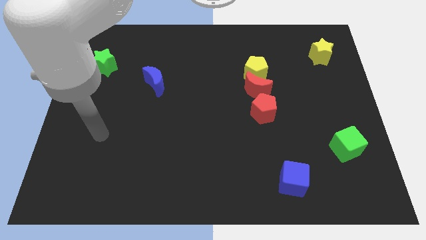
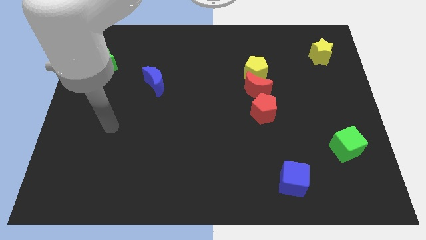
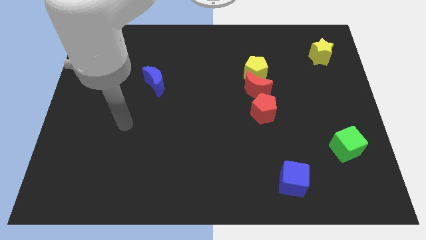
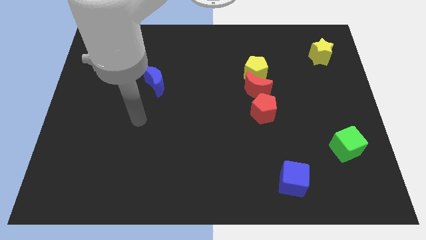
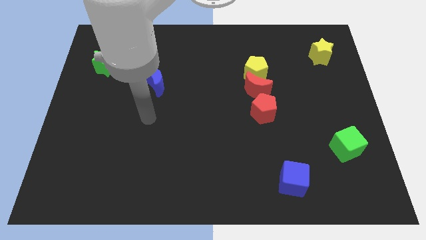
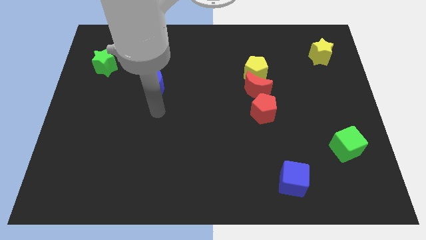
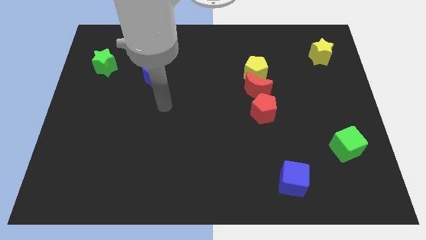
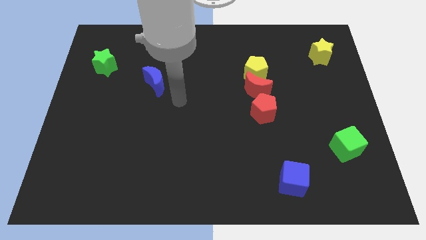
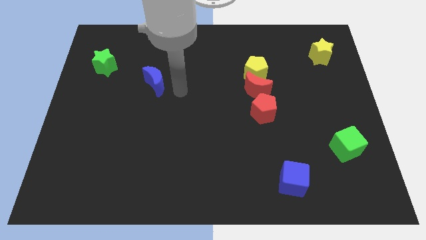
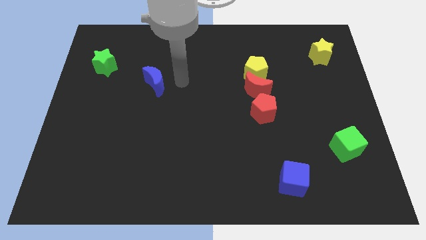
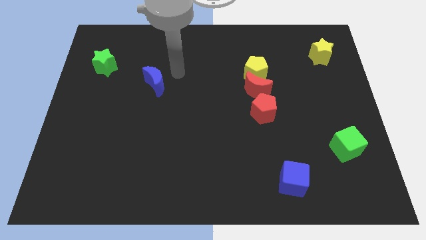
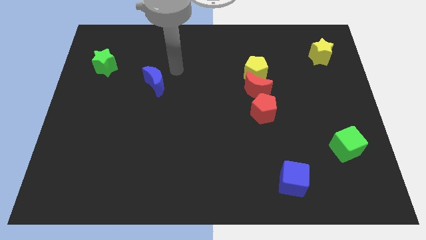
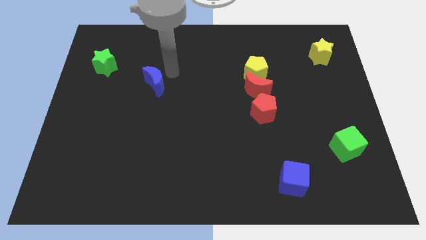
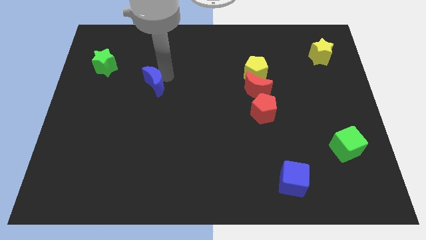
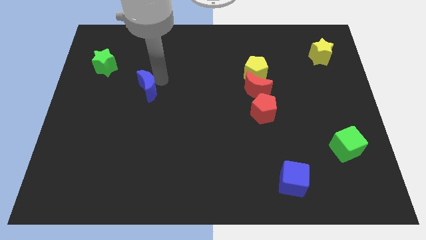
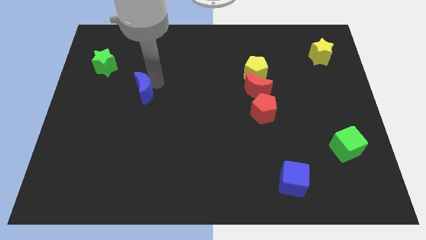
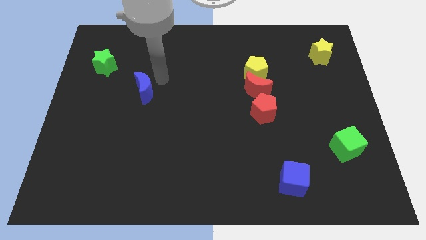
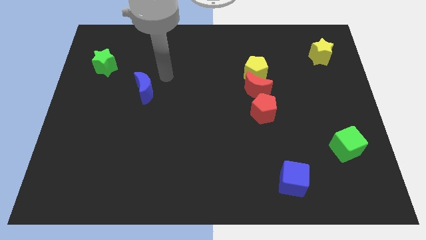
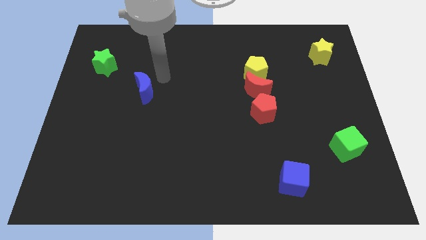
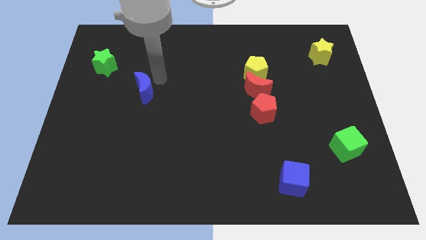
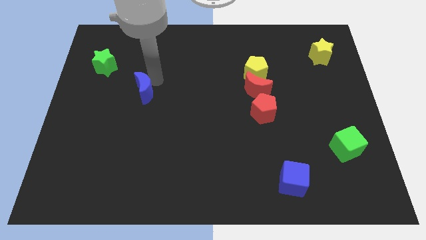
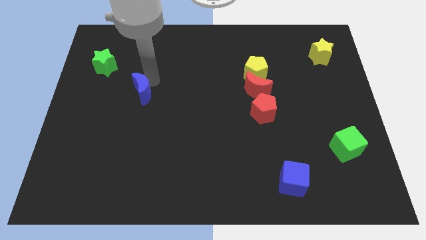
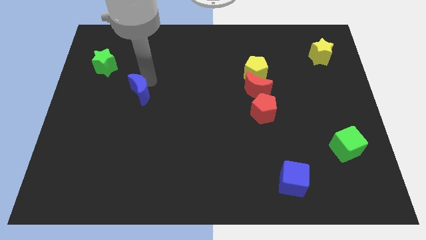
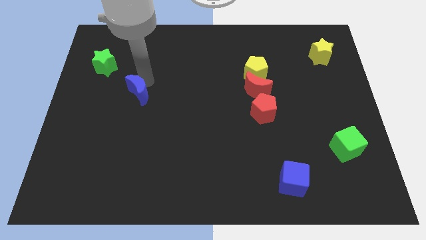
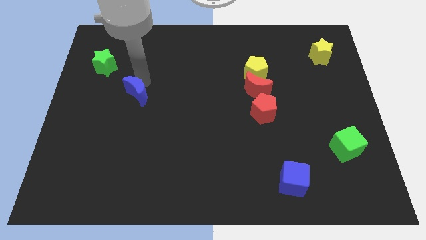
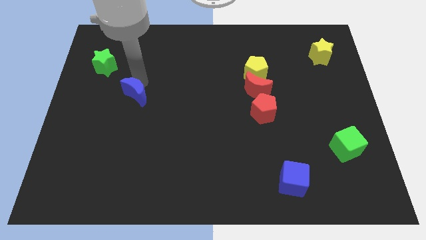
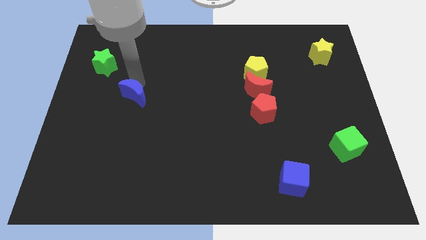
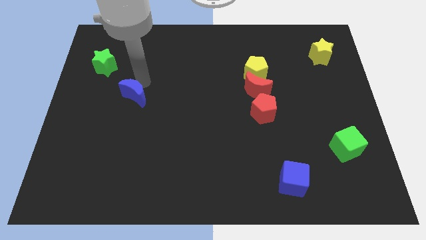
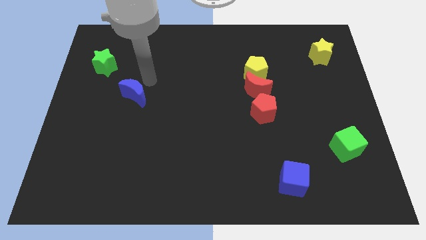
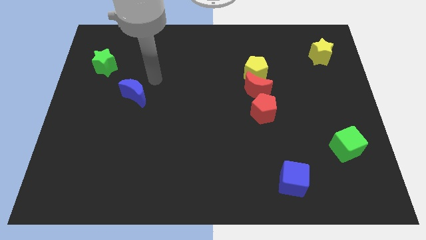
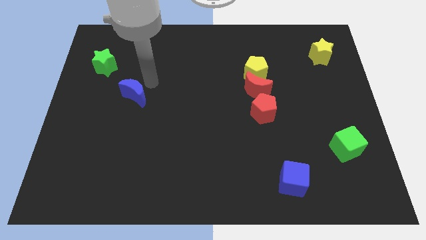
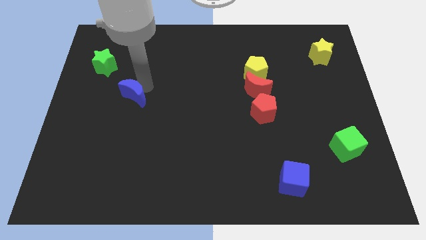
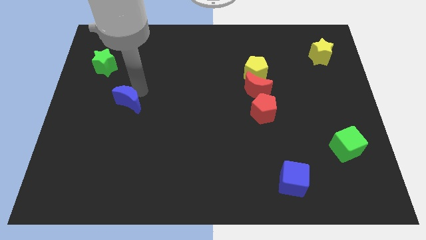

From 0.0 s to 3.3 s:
slightly push the blue moon downwards and left

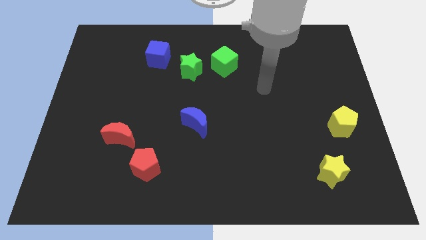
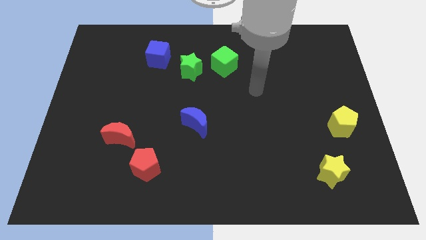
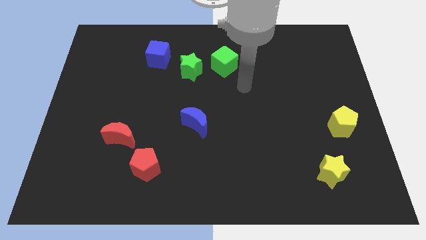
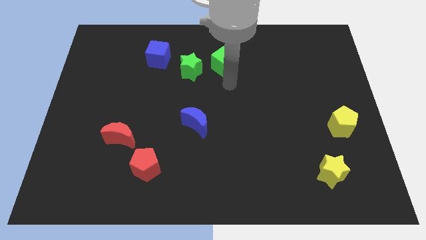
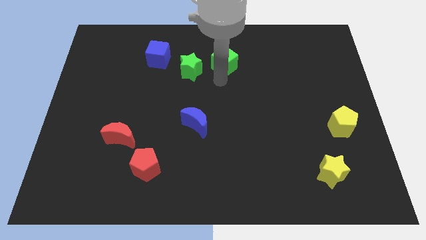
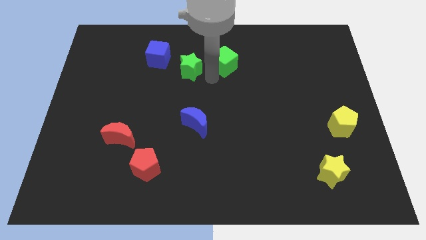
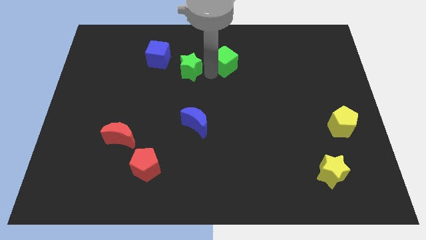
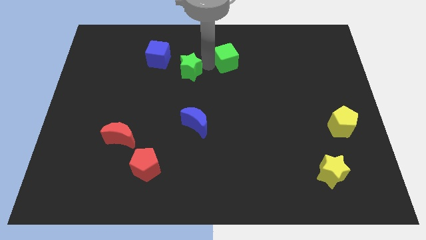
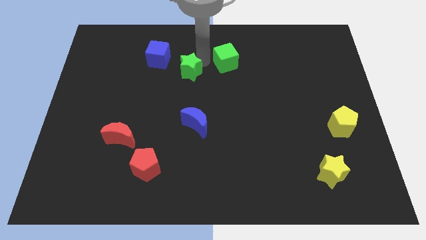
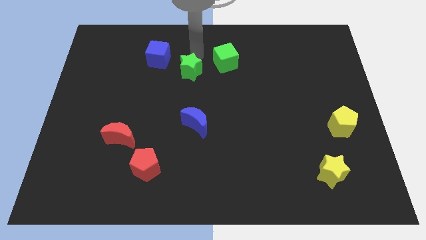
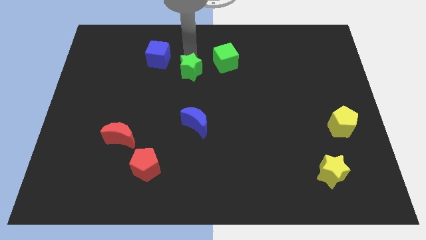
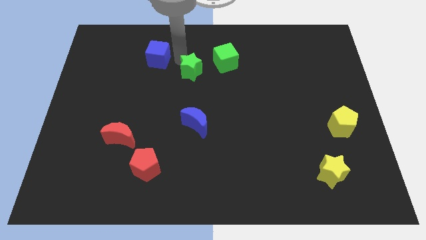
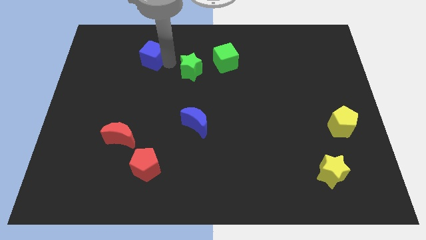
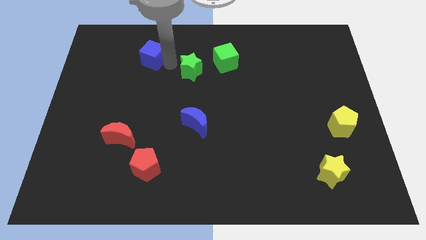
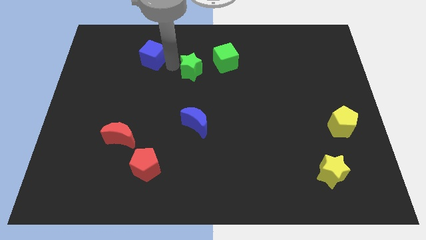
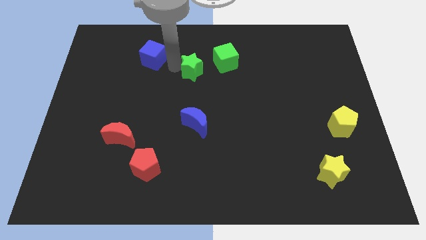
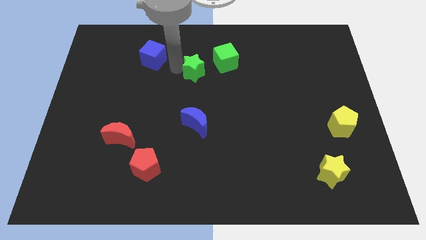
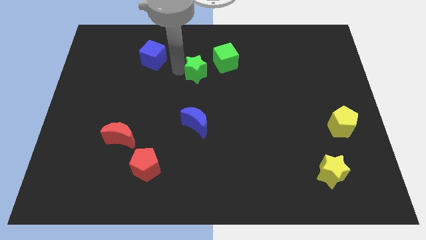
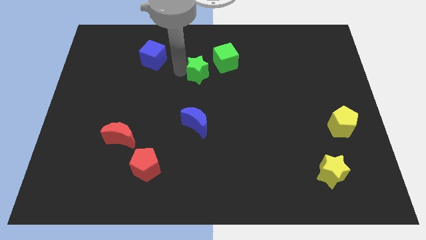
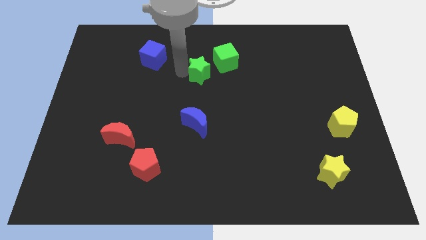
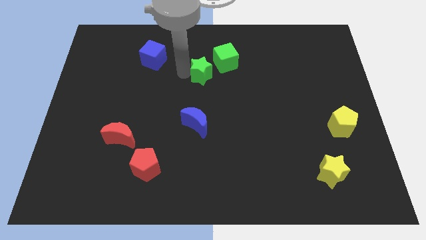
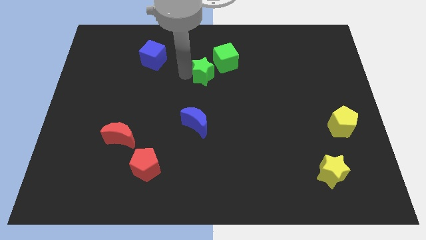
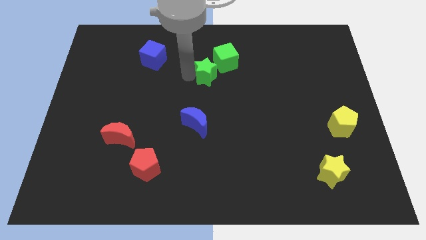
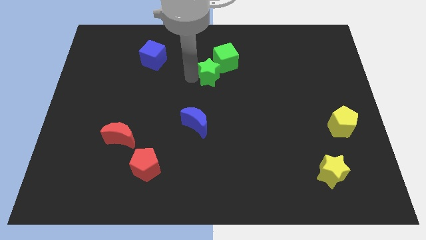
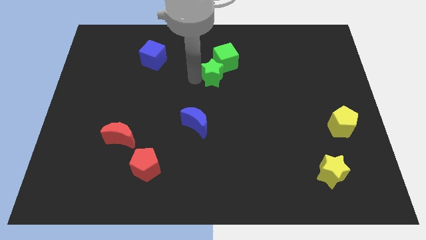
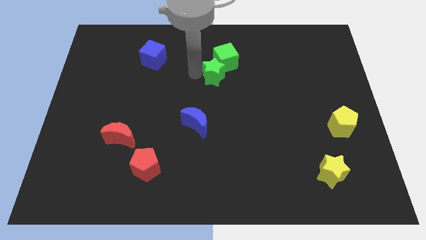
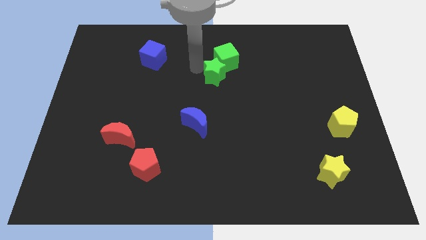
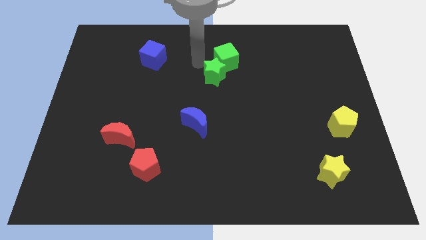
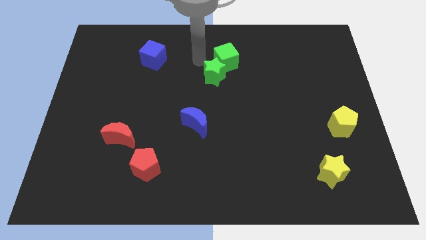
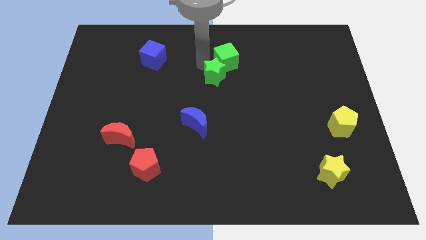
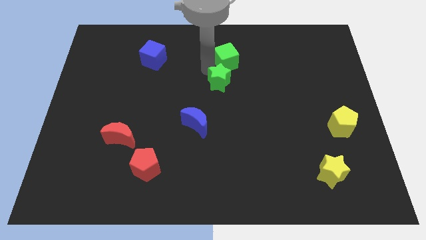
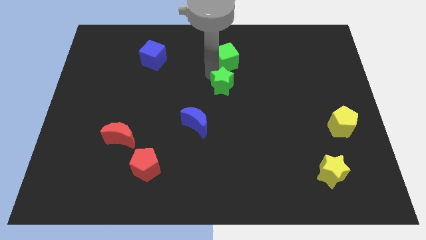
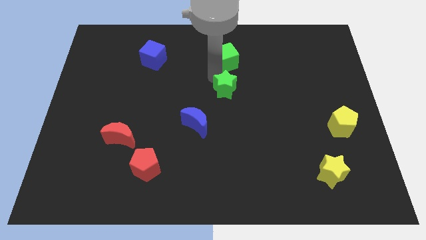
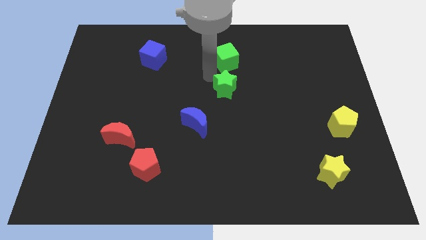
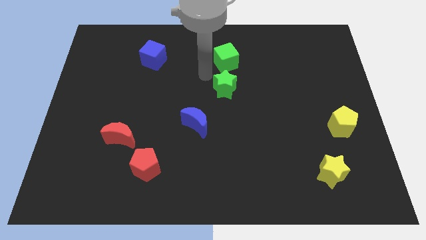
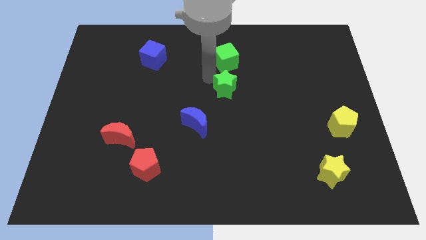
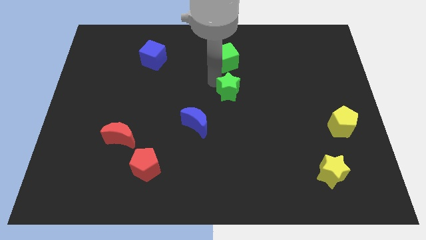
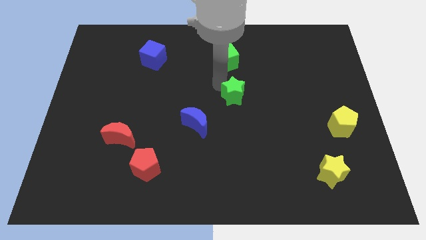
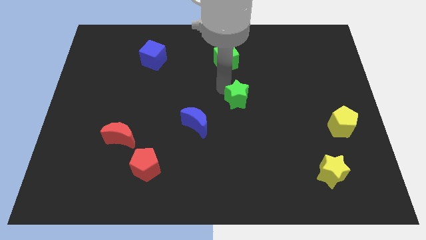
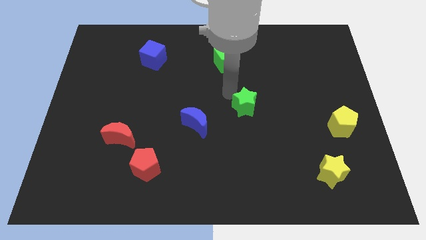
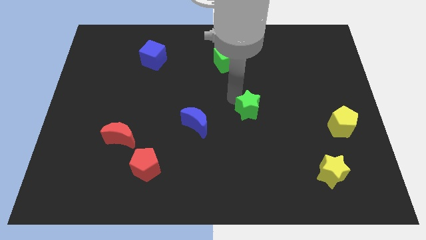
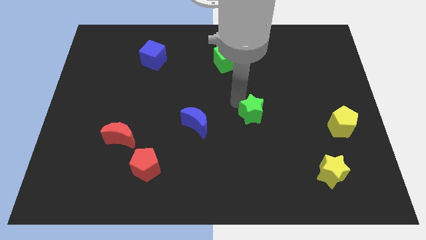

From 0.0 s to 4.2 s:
move the green star down and to the right

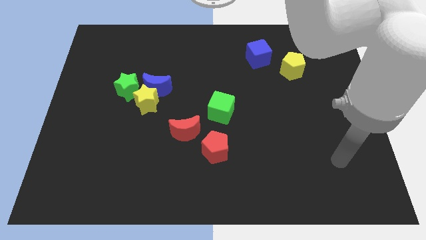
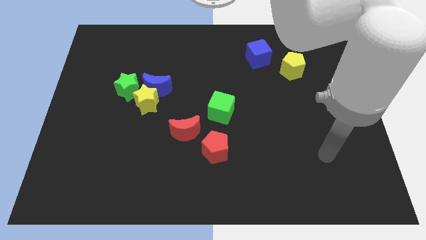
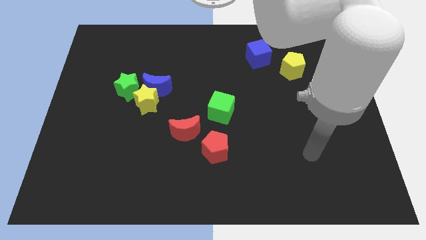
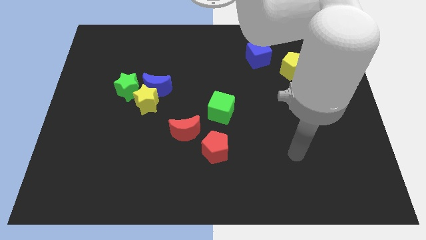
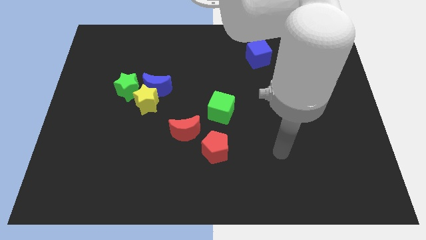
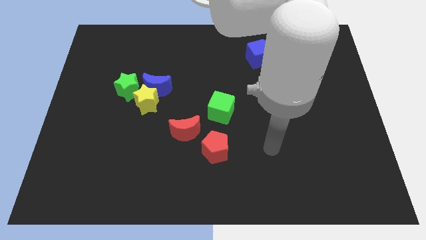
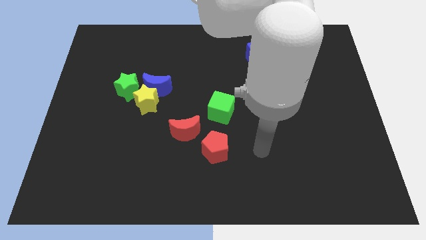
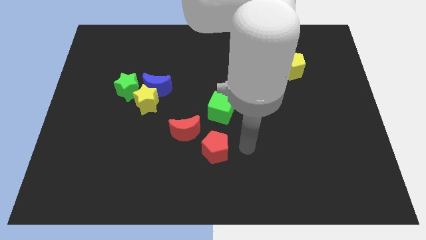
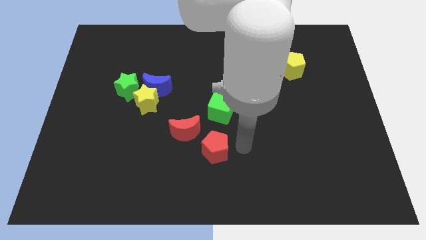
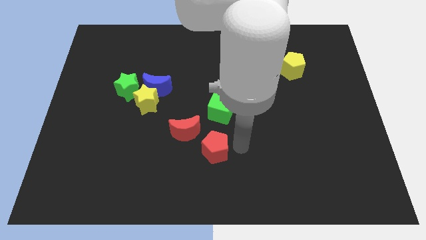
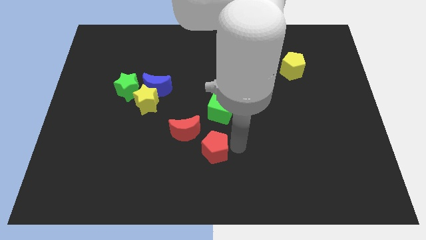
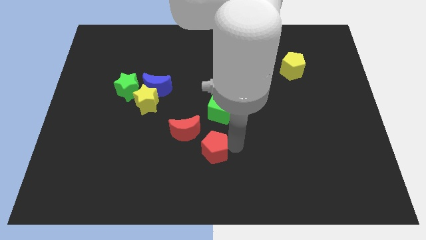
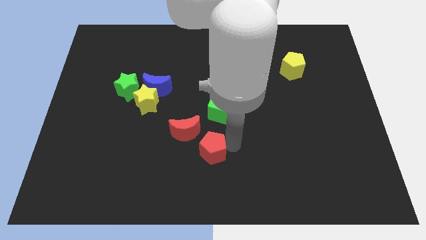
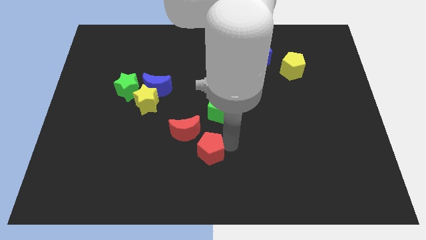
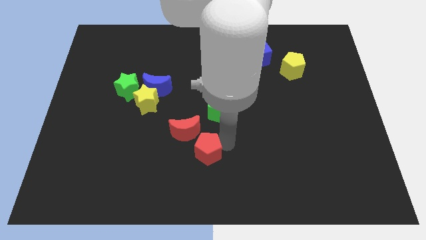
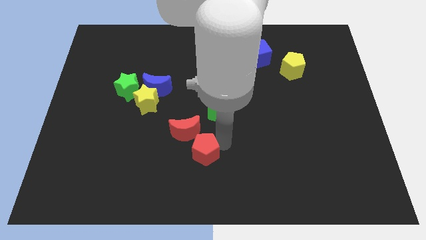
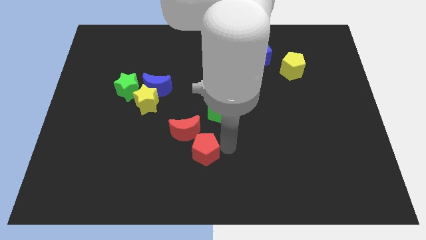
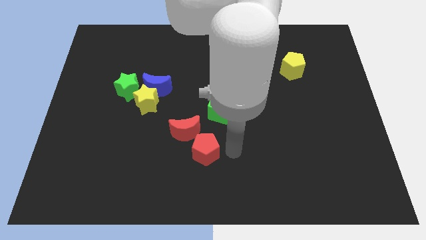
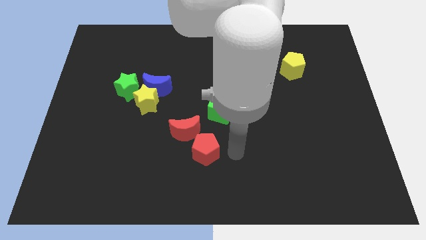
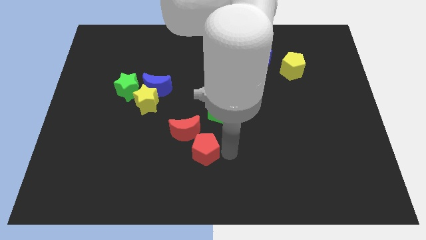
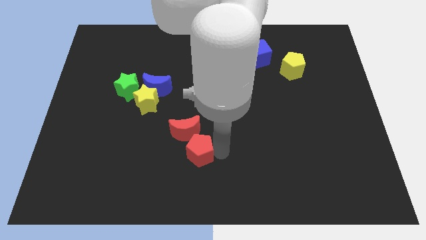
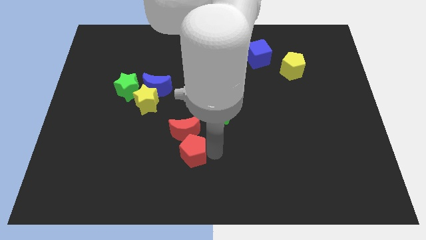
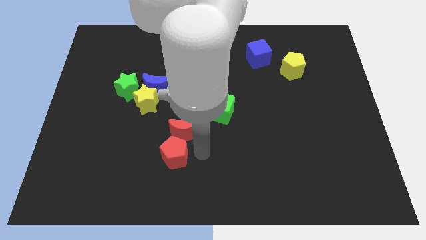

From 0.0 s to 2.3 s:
slightly move the red pentagon to the left
